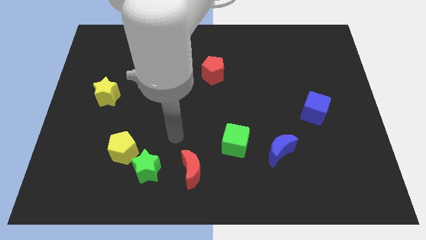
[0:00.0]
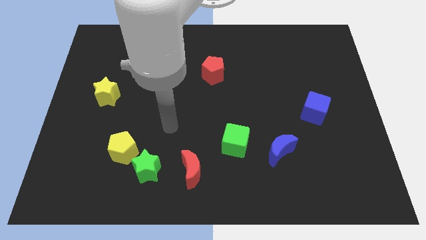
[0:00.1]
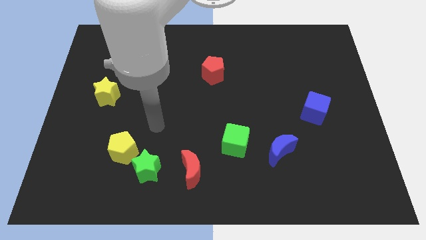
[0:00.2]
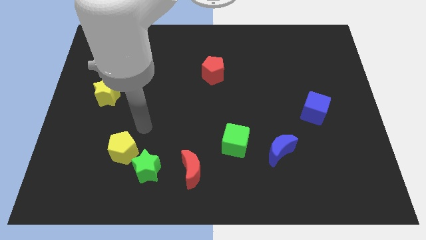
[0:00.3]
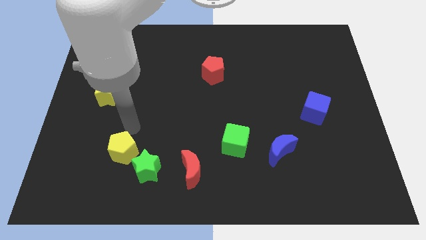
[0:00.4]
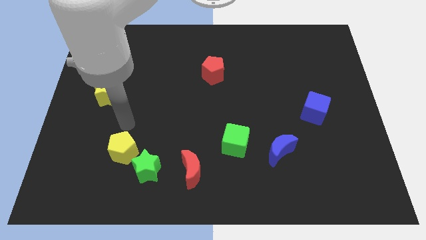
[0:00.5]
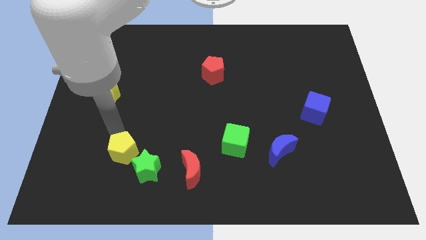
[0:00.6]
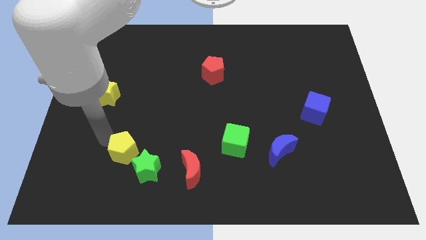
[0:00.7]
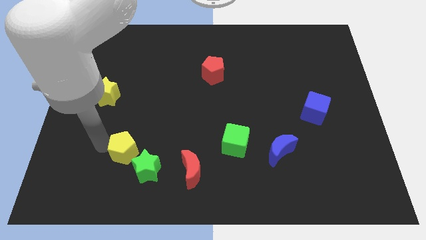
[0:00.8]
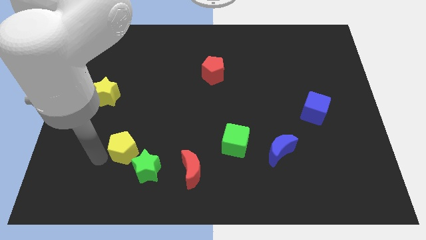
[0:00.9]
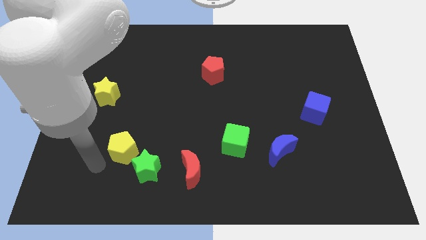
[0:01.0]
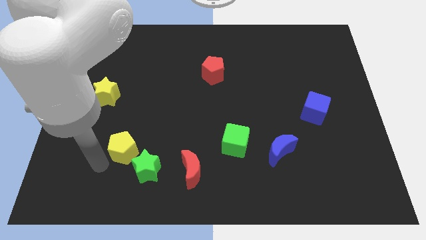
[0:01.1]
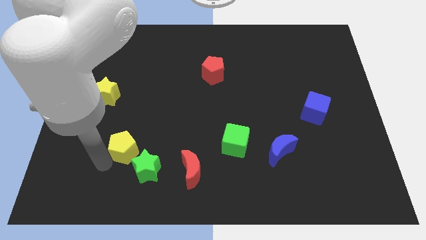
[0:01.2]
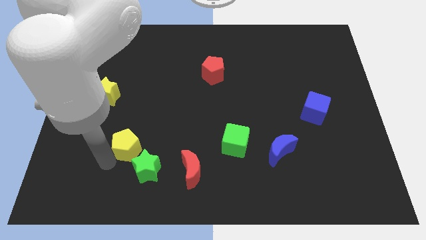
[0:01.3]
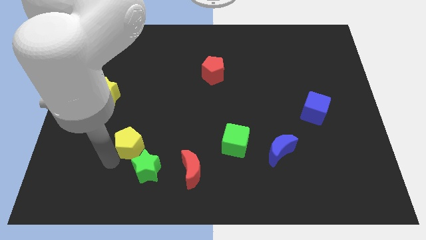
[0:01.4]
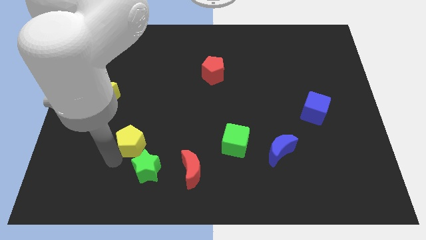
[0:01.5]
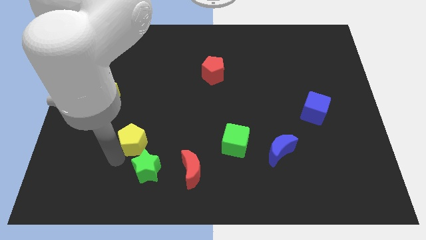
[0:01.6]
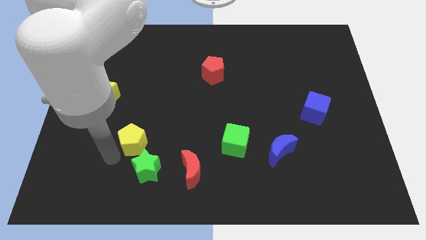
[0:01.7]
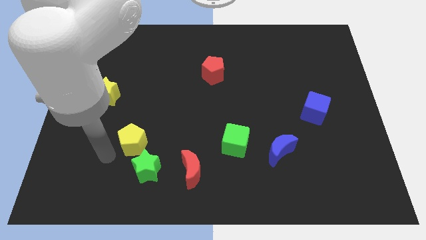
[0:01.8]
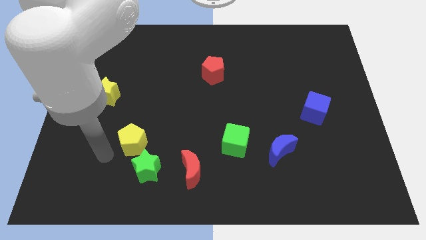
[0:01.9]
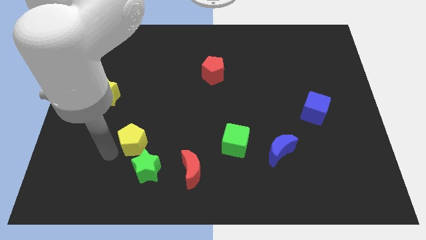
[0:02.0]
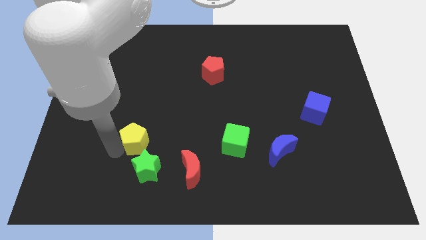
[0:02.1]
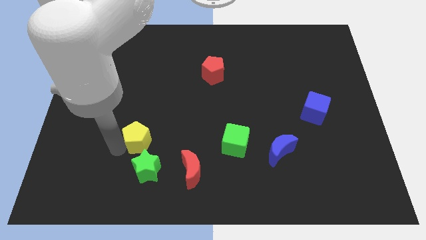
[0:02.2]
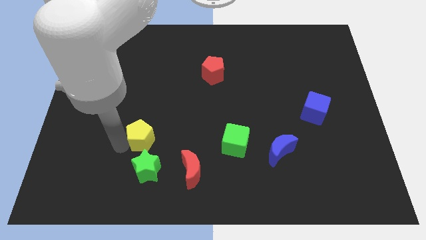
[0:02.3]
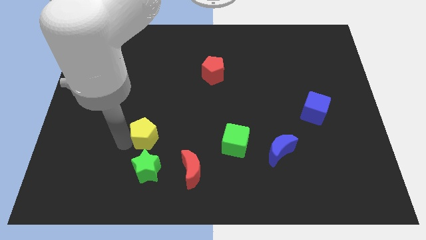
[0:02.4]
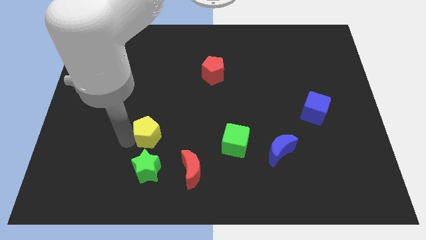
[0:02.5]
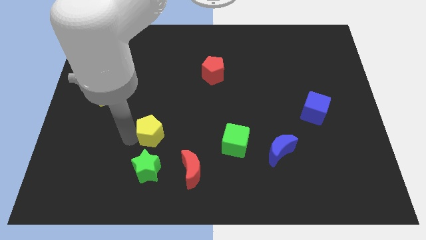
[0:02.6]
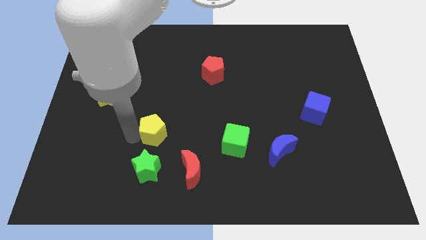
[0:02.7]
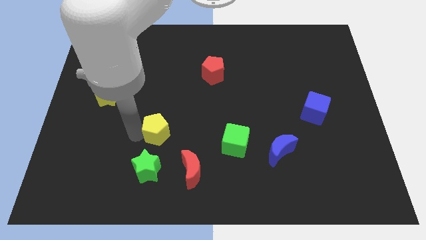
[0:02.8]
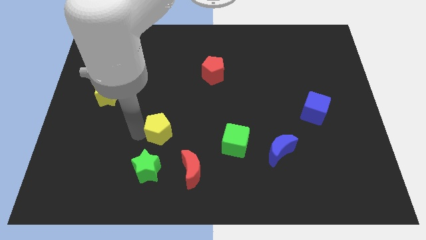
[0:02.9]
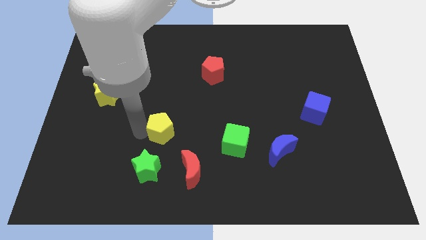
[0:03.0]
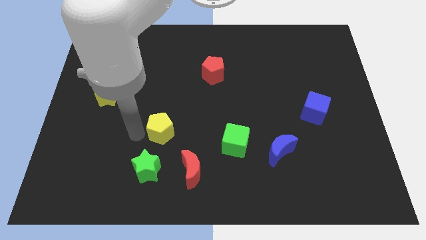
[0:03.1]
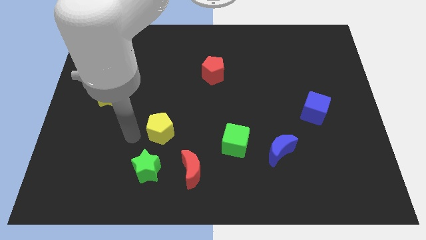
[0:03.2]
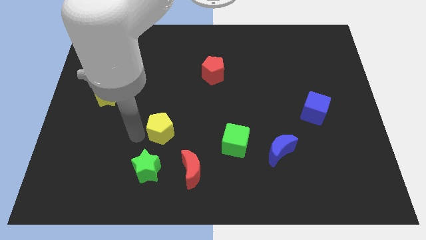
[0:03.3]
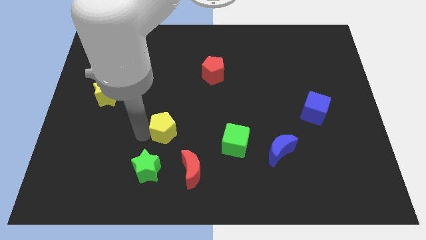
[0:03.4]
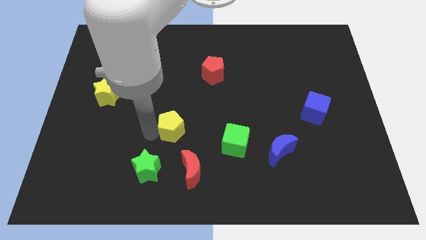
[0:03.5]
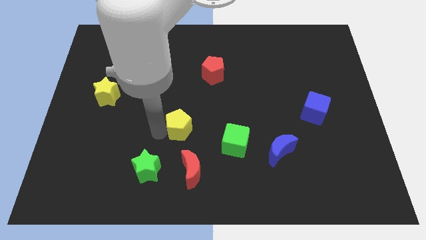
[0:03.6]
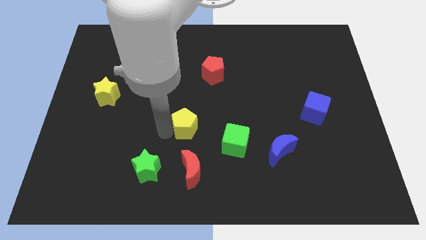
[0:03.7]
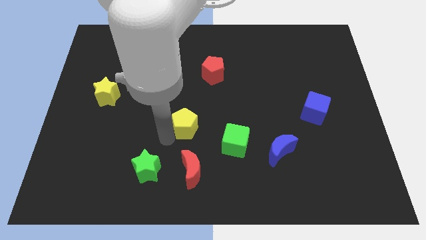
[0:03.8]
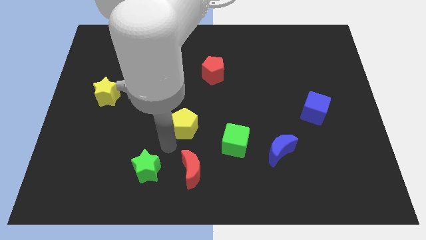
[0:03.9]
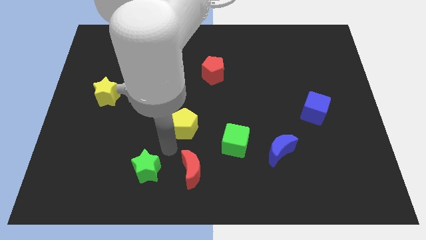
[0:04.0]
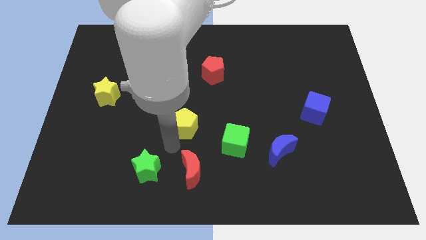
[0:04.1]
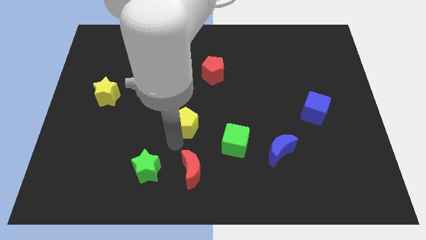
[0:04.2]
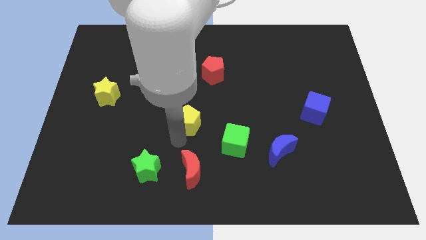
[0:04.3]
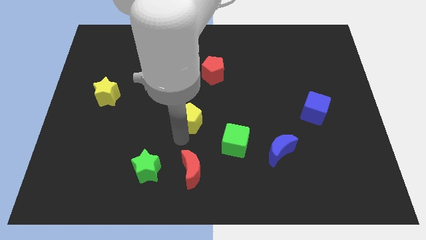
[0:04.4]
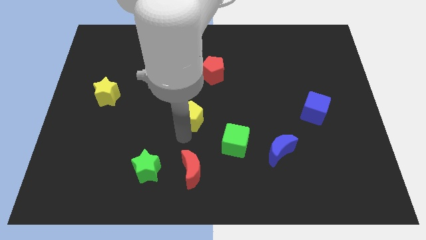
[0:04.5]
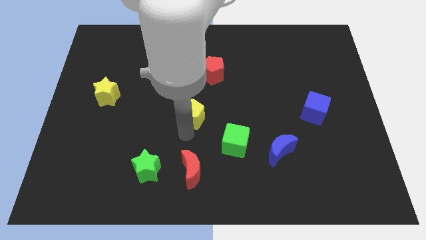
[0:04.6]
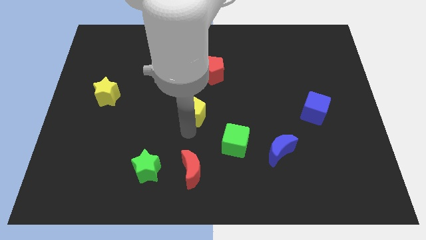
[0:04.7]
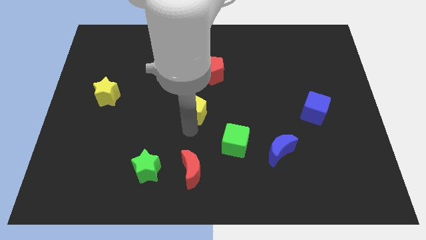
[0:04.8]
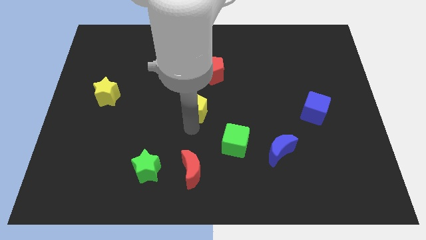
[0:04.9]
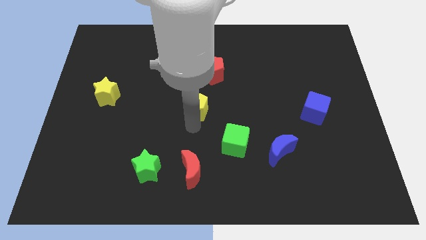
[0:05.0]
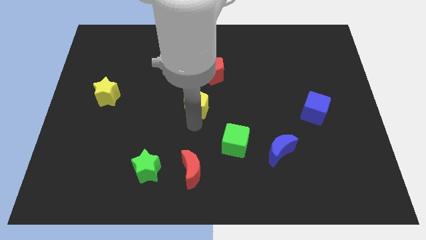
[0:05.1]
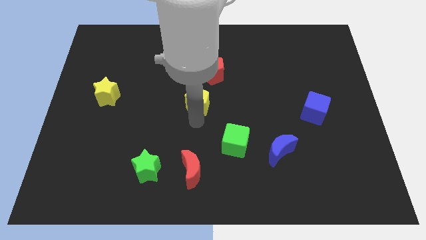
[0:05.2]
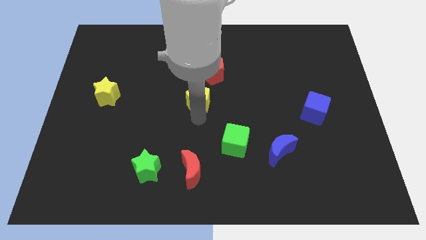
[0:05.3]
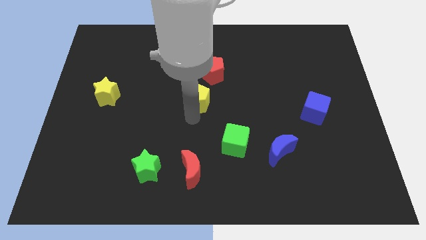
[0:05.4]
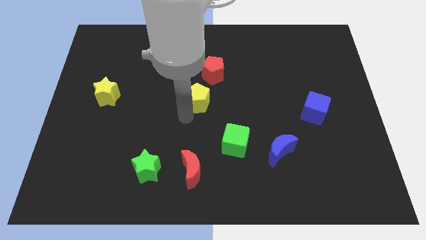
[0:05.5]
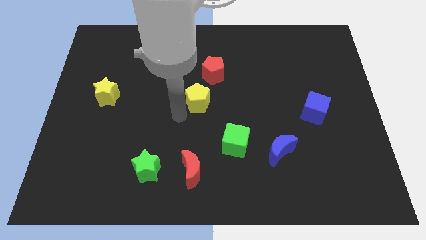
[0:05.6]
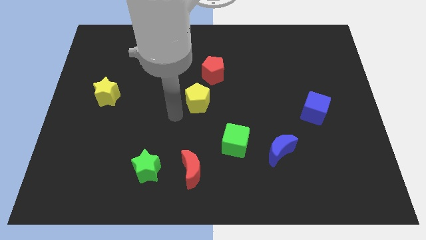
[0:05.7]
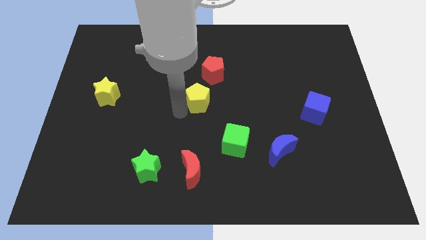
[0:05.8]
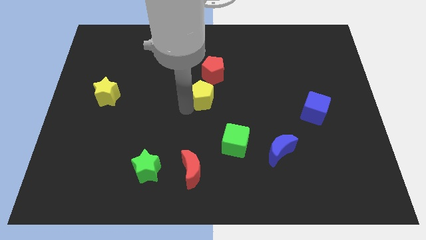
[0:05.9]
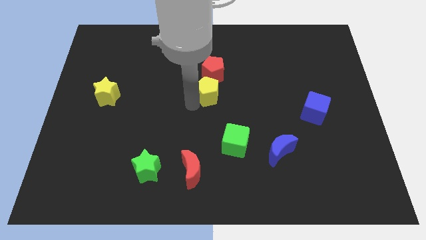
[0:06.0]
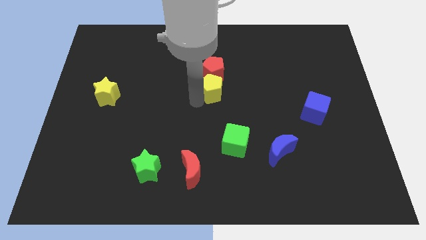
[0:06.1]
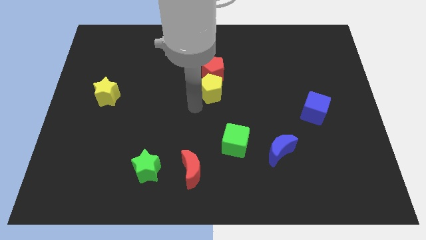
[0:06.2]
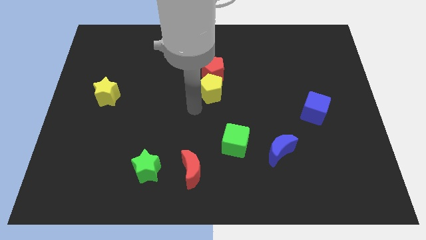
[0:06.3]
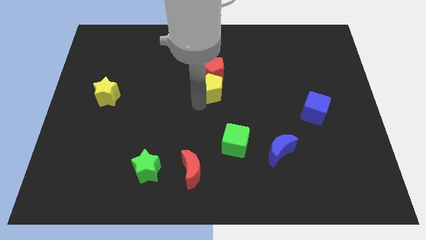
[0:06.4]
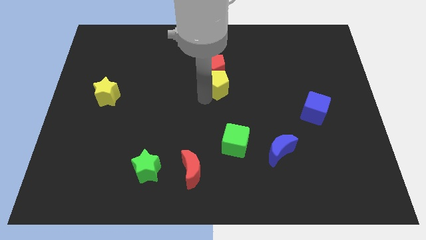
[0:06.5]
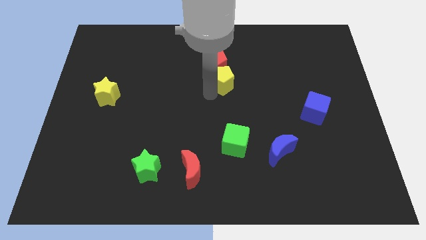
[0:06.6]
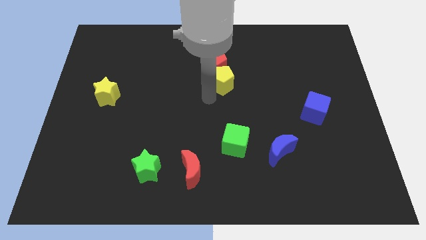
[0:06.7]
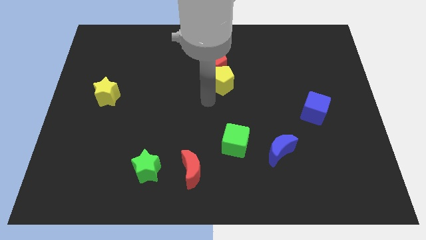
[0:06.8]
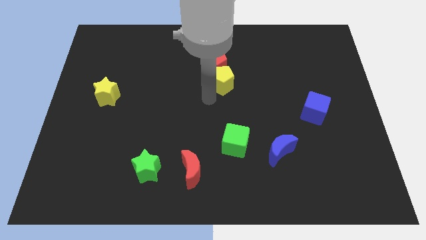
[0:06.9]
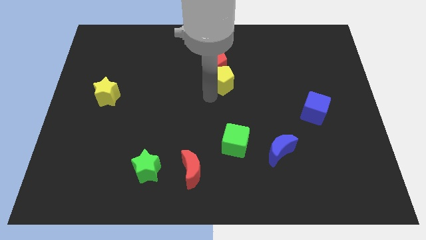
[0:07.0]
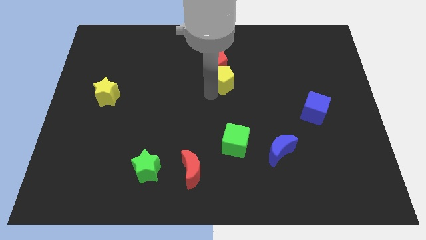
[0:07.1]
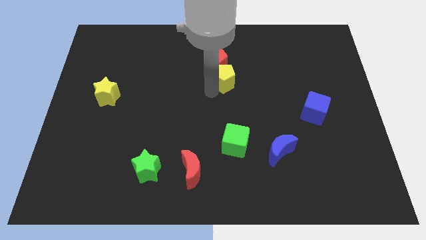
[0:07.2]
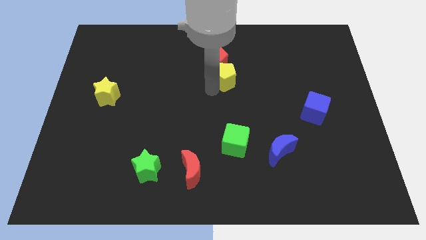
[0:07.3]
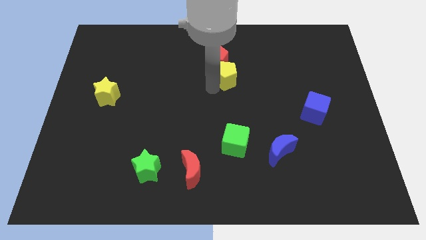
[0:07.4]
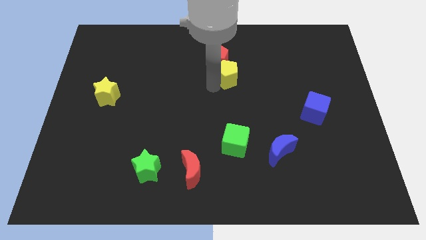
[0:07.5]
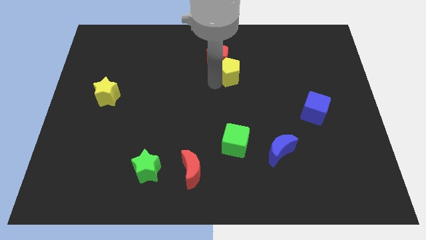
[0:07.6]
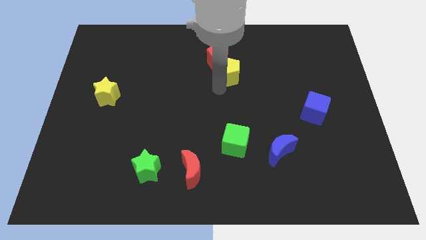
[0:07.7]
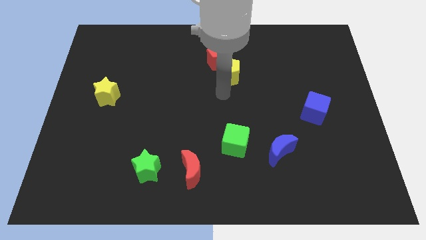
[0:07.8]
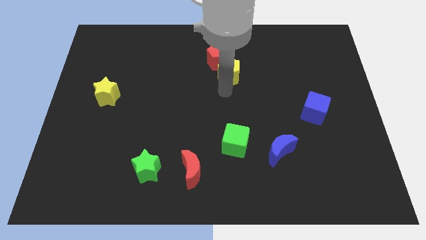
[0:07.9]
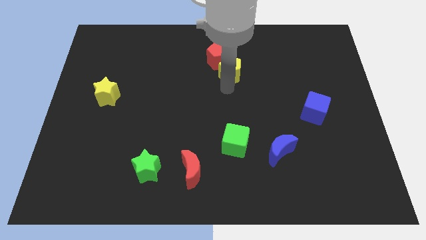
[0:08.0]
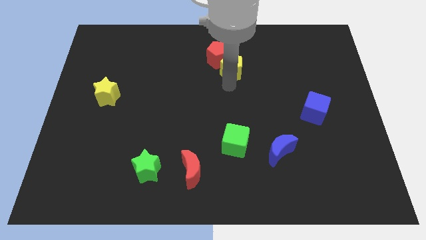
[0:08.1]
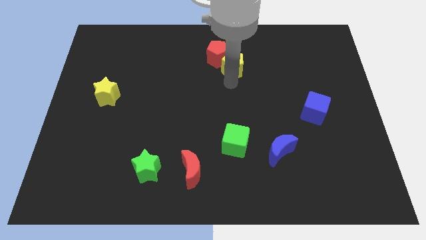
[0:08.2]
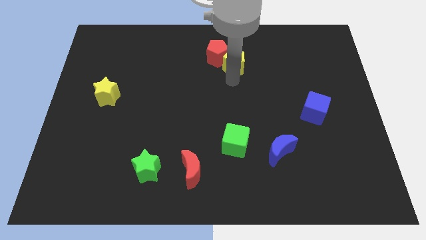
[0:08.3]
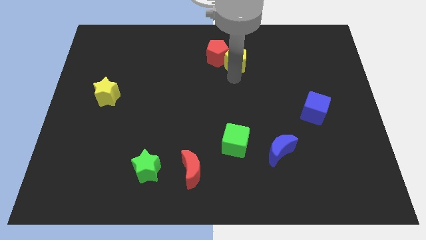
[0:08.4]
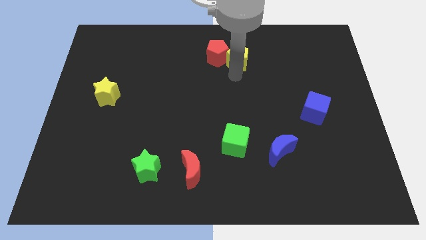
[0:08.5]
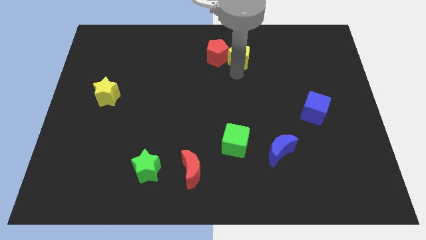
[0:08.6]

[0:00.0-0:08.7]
move the yellow pentagon to the top right side of the red pentagon
